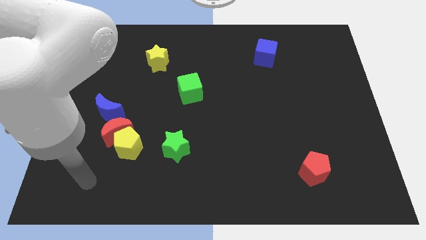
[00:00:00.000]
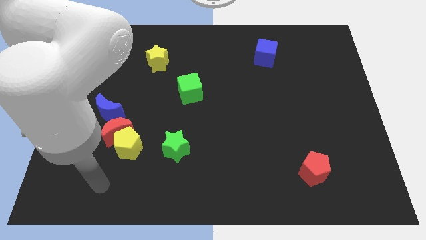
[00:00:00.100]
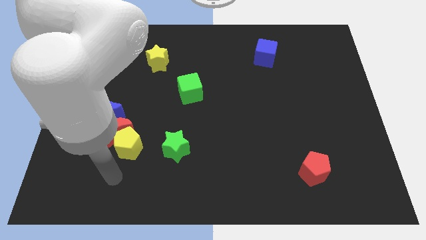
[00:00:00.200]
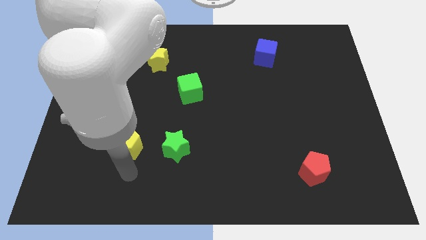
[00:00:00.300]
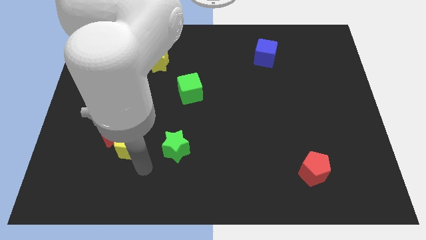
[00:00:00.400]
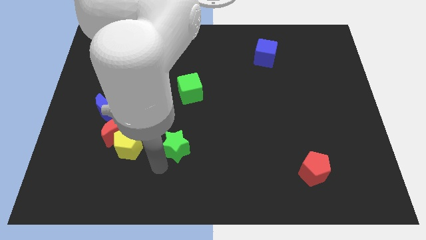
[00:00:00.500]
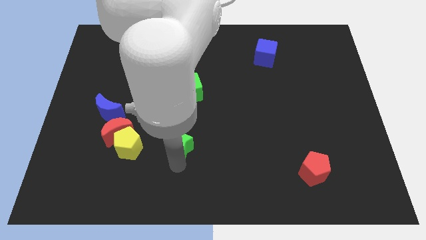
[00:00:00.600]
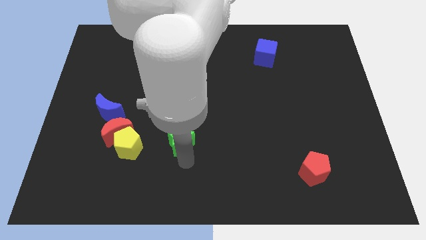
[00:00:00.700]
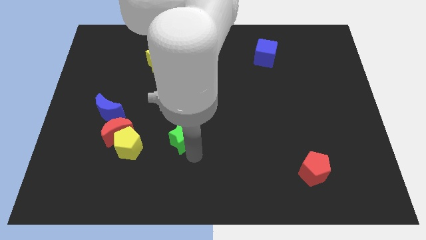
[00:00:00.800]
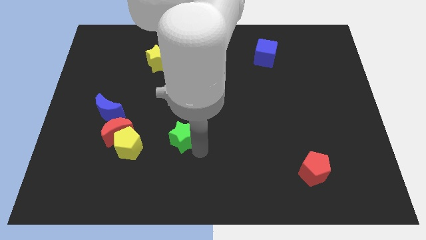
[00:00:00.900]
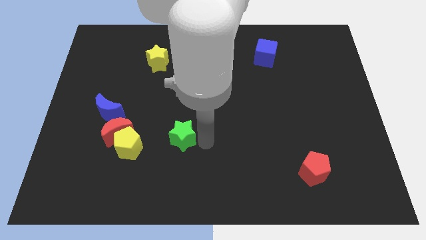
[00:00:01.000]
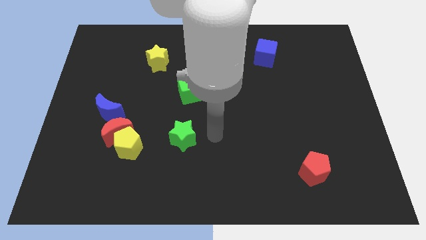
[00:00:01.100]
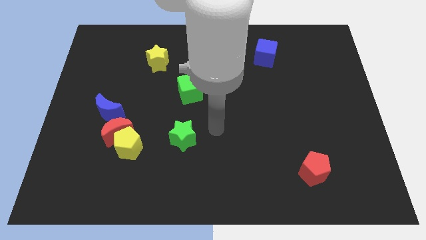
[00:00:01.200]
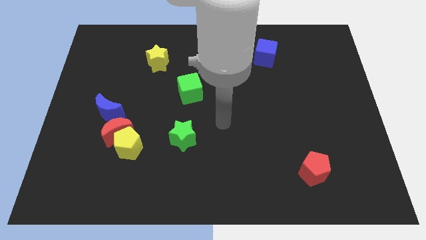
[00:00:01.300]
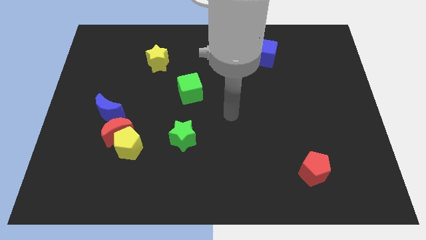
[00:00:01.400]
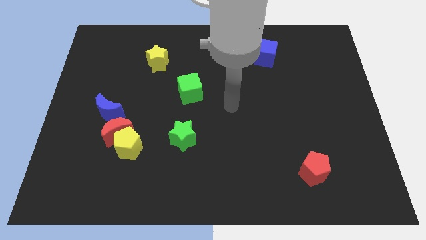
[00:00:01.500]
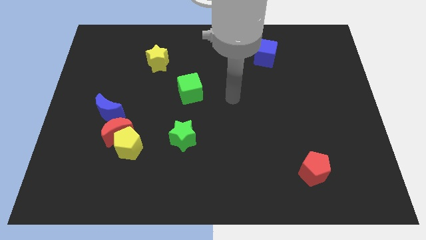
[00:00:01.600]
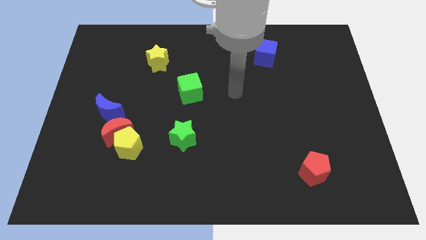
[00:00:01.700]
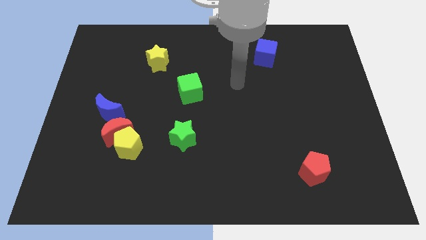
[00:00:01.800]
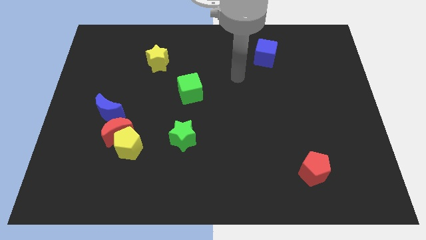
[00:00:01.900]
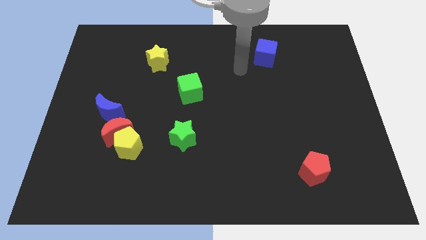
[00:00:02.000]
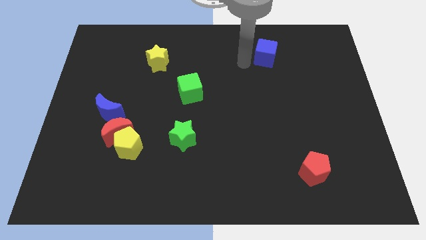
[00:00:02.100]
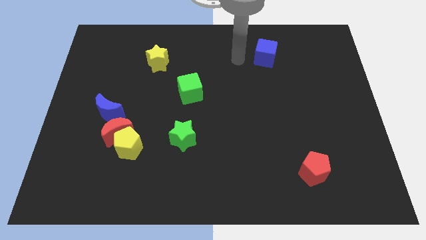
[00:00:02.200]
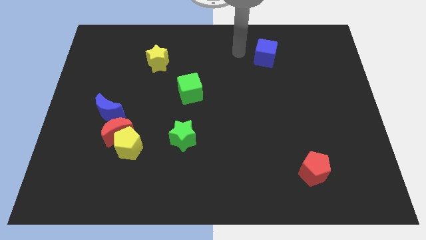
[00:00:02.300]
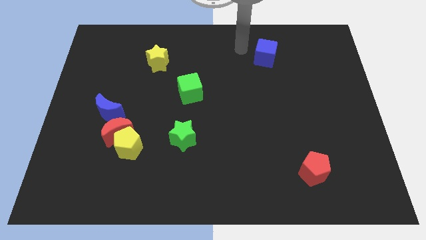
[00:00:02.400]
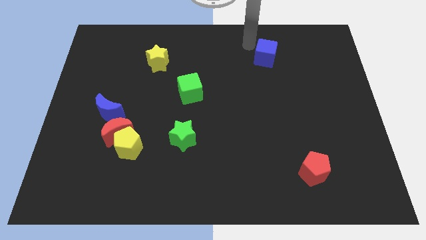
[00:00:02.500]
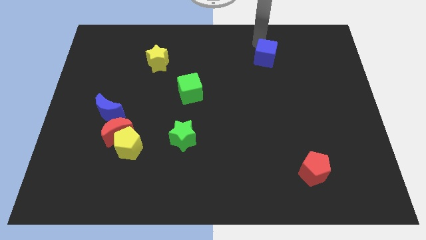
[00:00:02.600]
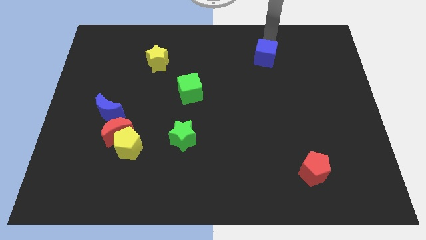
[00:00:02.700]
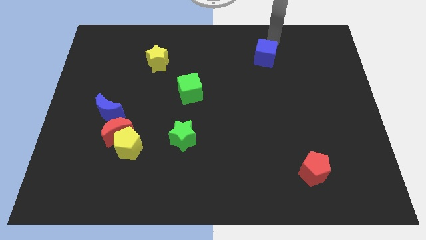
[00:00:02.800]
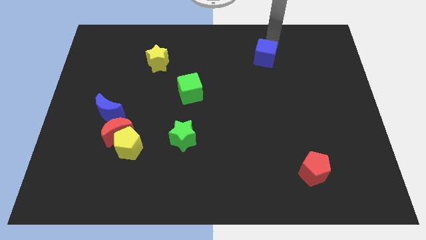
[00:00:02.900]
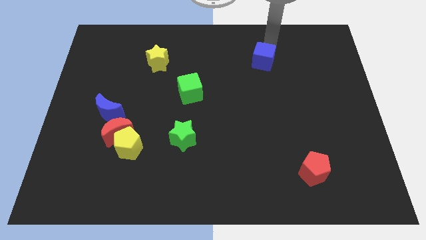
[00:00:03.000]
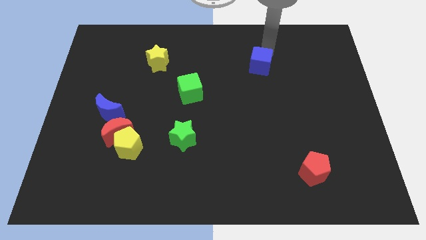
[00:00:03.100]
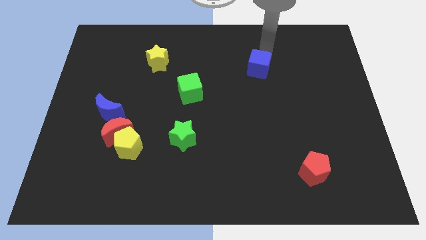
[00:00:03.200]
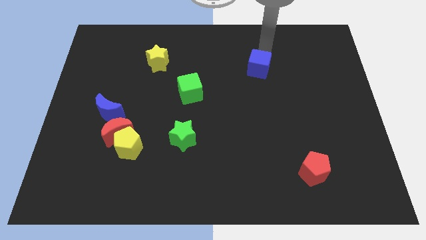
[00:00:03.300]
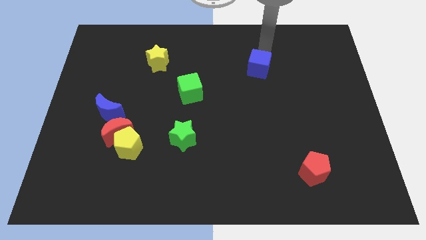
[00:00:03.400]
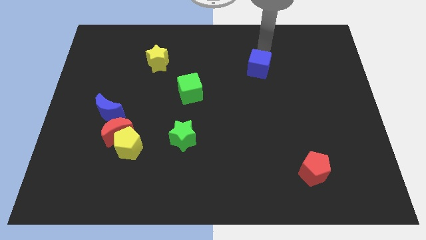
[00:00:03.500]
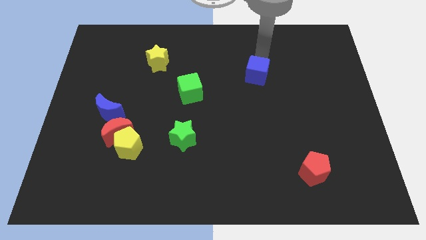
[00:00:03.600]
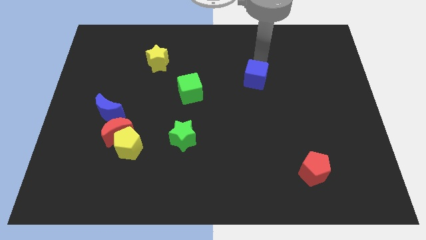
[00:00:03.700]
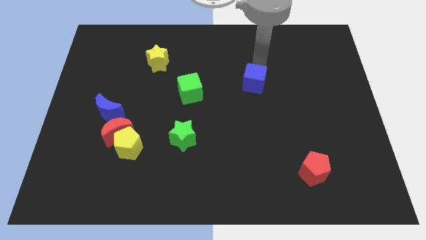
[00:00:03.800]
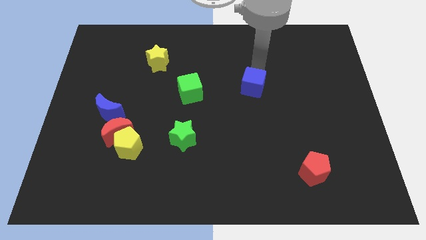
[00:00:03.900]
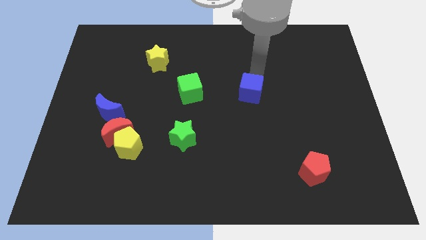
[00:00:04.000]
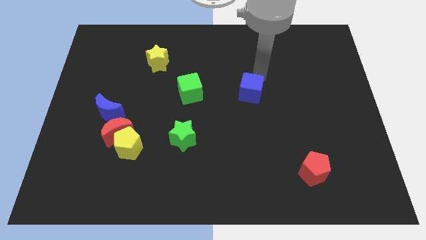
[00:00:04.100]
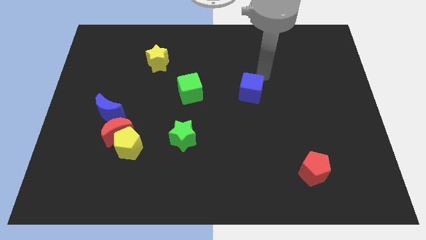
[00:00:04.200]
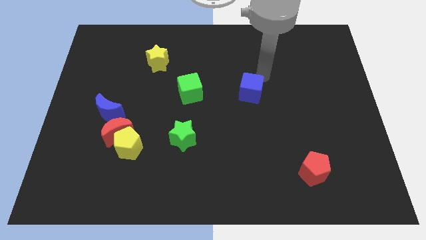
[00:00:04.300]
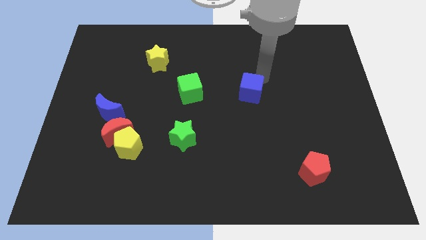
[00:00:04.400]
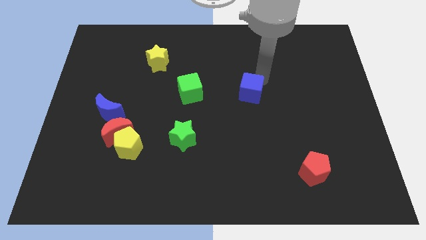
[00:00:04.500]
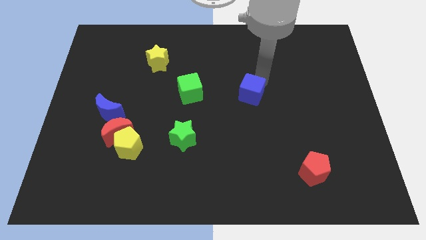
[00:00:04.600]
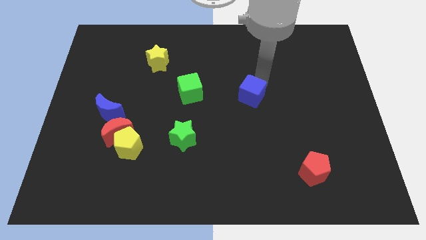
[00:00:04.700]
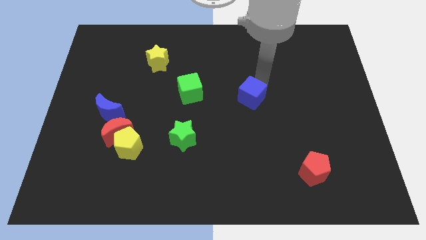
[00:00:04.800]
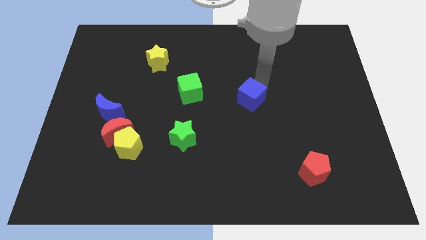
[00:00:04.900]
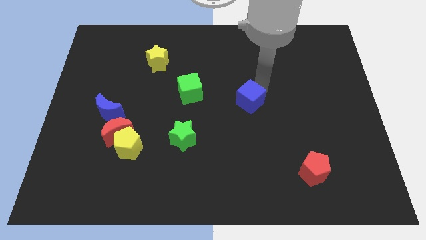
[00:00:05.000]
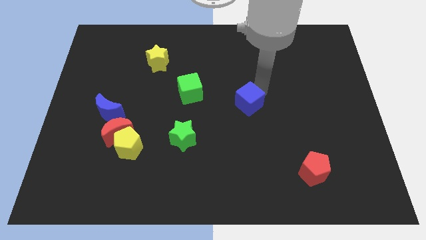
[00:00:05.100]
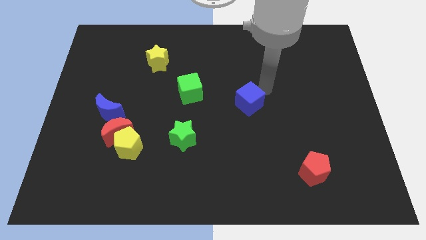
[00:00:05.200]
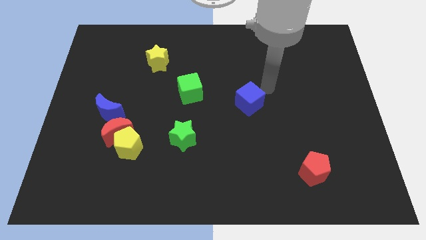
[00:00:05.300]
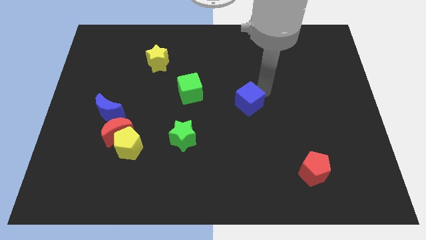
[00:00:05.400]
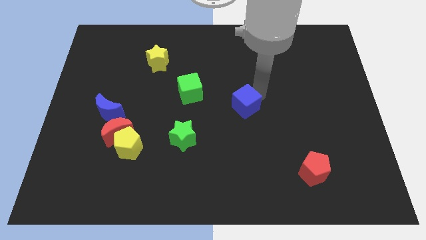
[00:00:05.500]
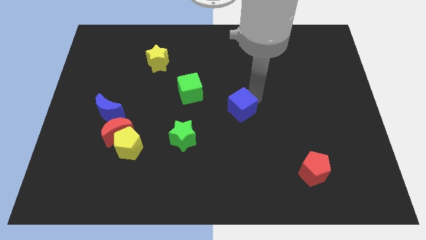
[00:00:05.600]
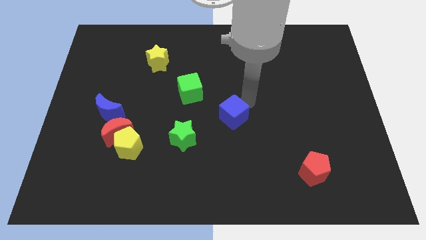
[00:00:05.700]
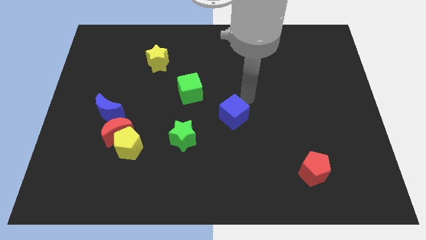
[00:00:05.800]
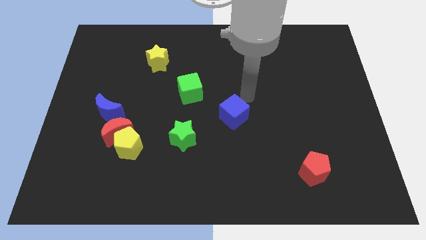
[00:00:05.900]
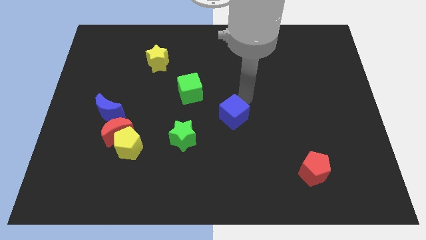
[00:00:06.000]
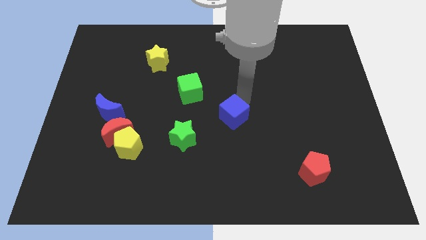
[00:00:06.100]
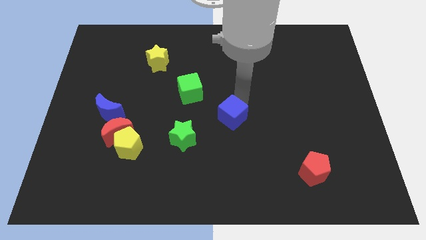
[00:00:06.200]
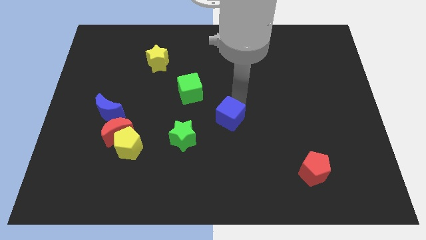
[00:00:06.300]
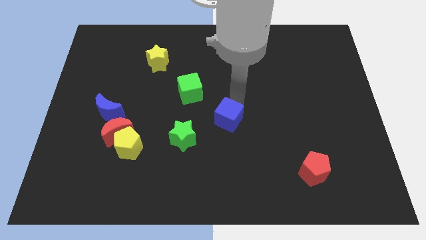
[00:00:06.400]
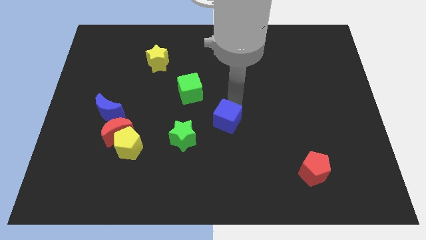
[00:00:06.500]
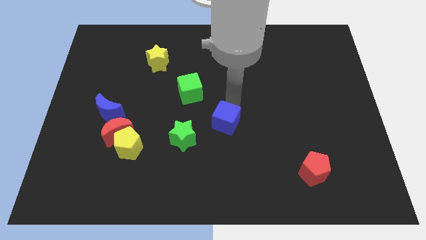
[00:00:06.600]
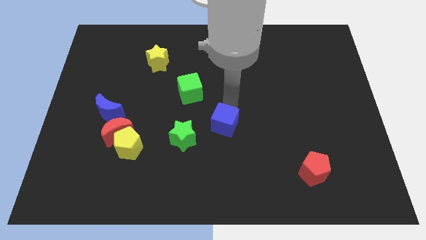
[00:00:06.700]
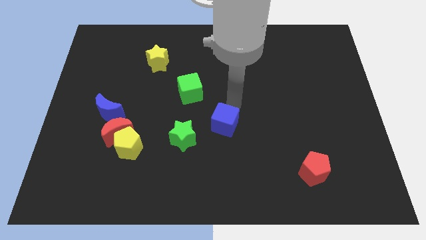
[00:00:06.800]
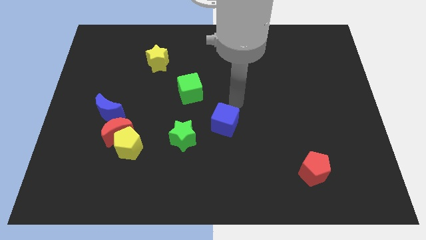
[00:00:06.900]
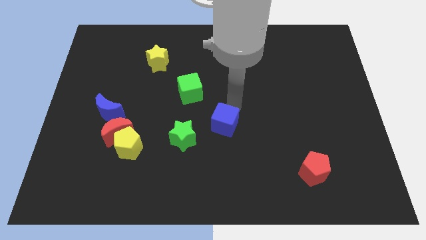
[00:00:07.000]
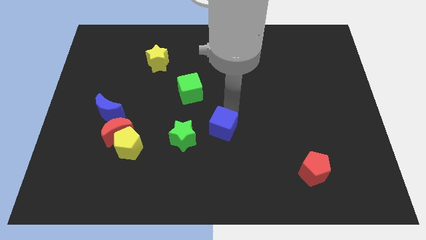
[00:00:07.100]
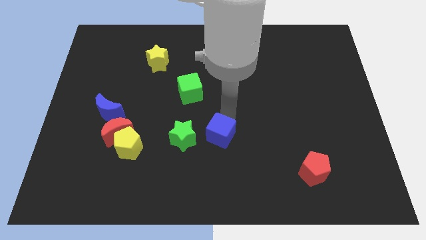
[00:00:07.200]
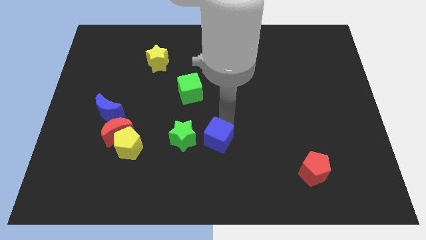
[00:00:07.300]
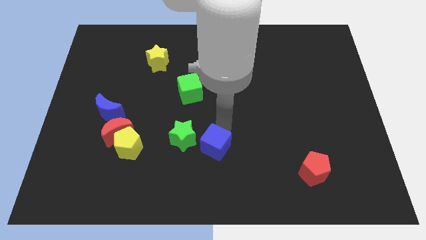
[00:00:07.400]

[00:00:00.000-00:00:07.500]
move the blue cube to the bottom right side of the green star
